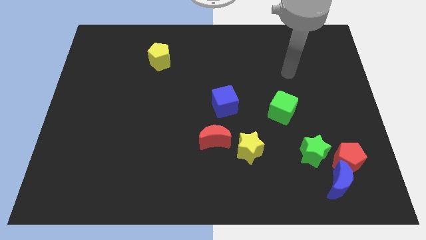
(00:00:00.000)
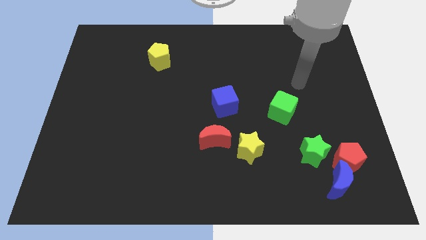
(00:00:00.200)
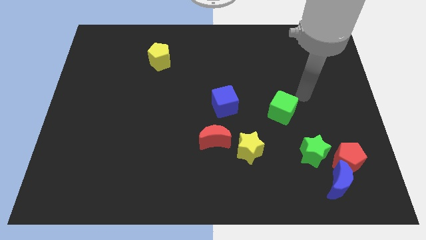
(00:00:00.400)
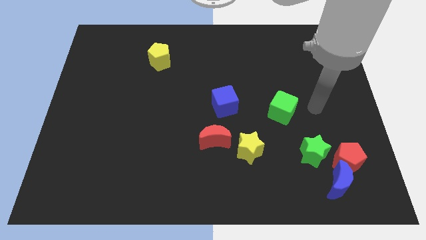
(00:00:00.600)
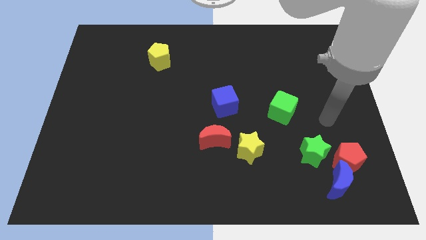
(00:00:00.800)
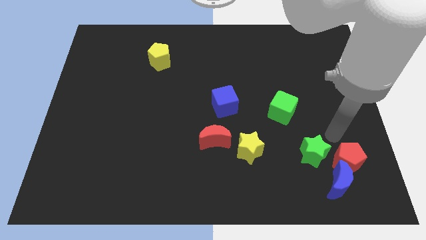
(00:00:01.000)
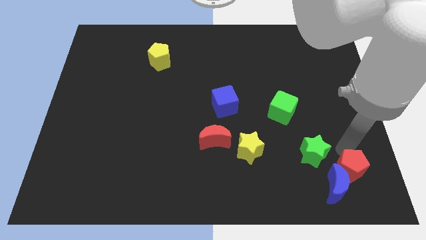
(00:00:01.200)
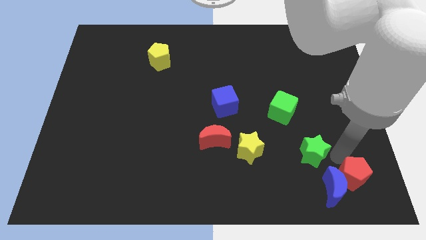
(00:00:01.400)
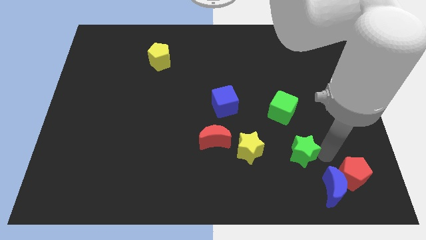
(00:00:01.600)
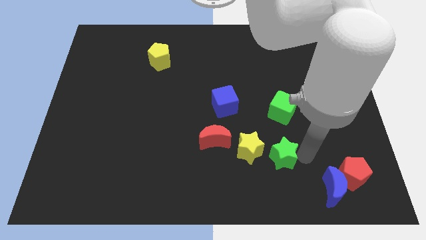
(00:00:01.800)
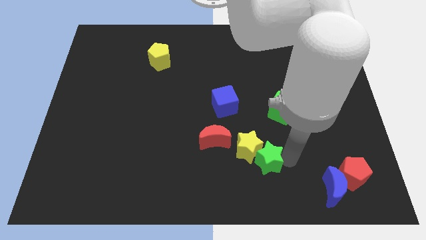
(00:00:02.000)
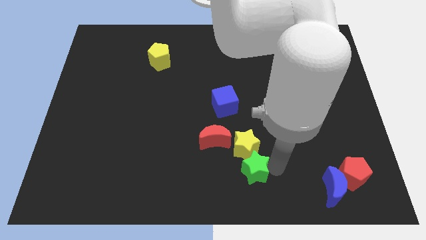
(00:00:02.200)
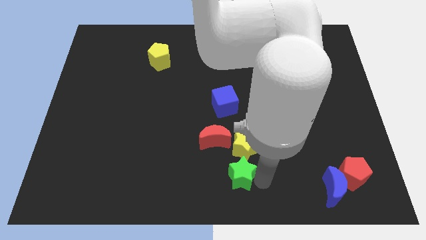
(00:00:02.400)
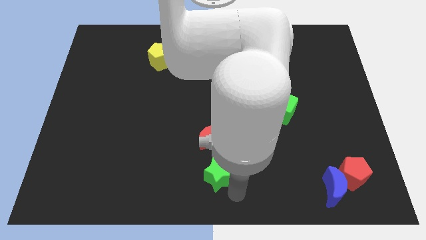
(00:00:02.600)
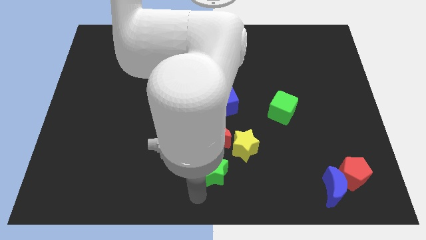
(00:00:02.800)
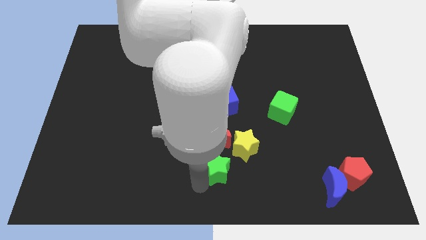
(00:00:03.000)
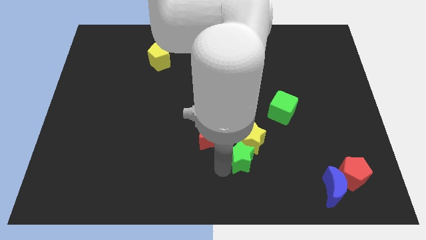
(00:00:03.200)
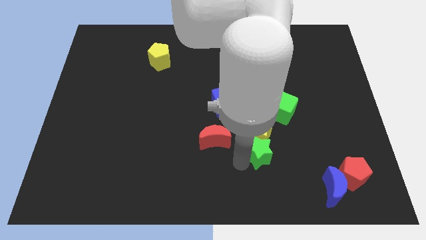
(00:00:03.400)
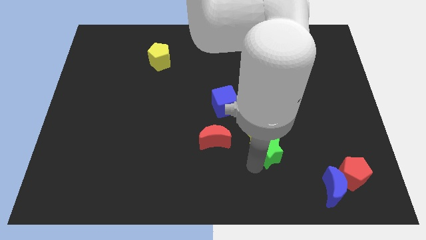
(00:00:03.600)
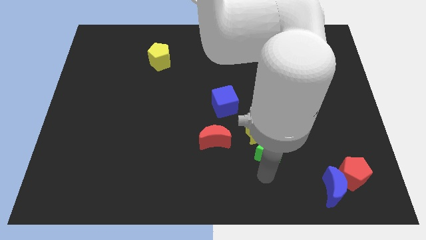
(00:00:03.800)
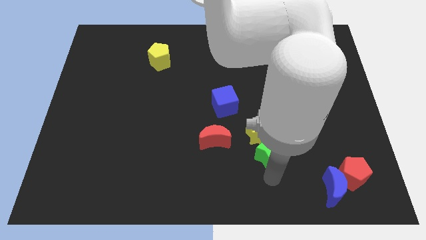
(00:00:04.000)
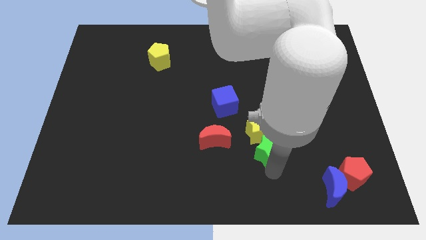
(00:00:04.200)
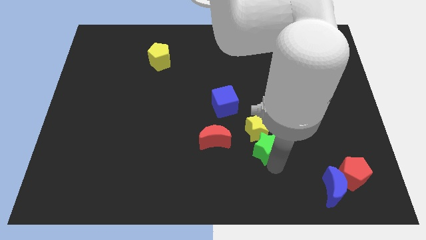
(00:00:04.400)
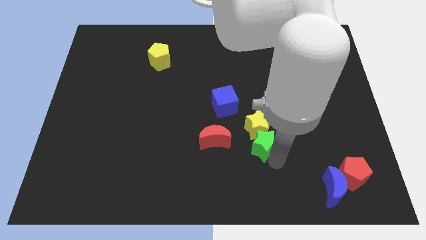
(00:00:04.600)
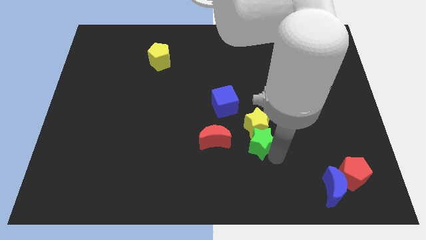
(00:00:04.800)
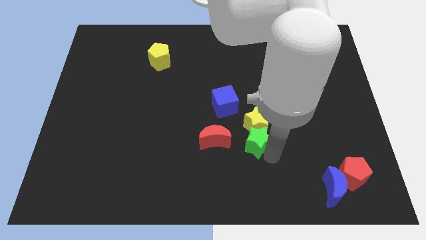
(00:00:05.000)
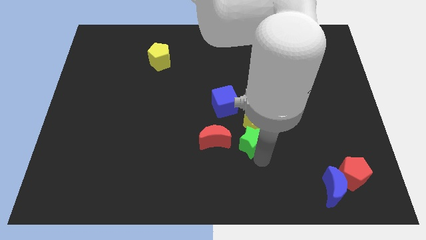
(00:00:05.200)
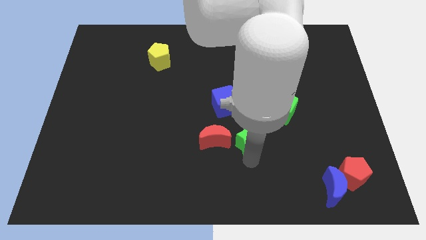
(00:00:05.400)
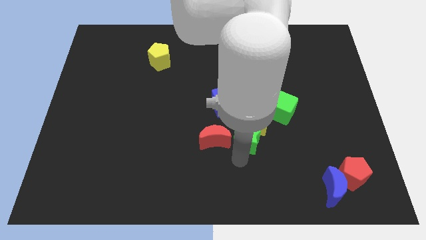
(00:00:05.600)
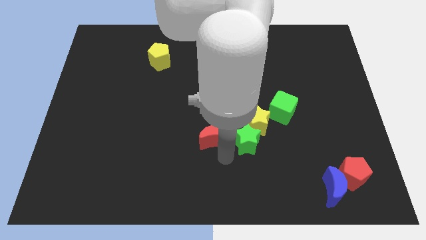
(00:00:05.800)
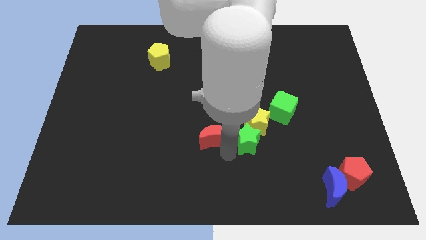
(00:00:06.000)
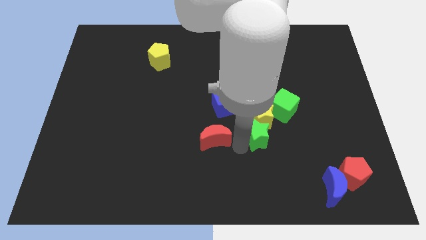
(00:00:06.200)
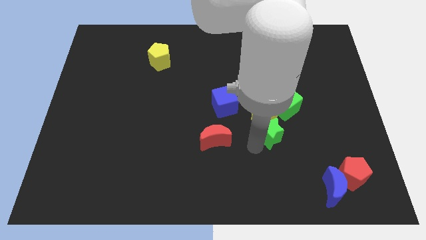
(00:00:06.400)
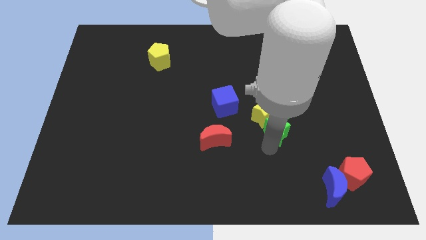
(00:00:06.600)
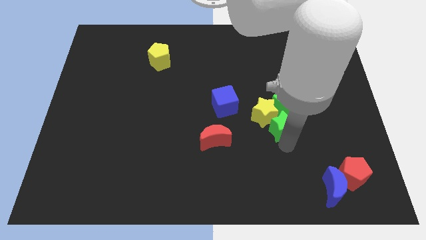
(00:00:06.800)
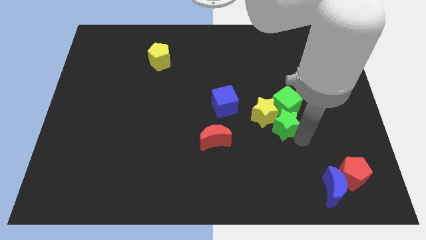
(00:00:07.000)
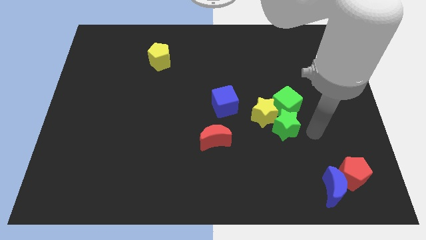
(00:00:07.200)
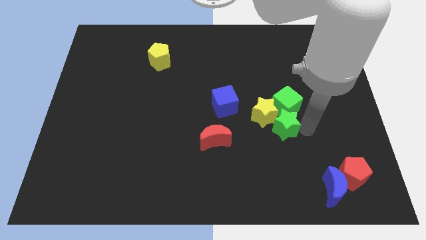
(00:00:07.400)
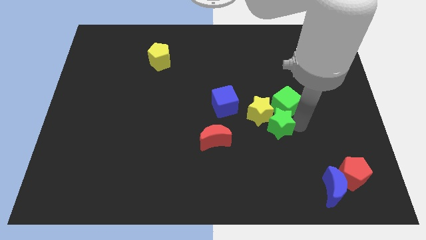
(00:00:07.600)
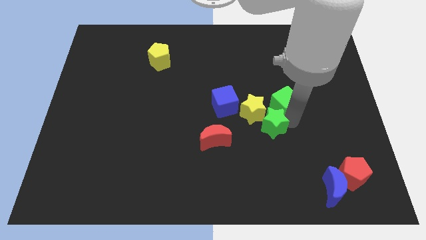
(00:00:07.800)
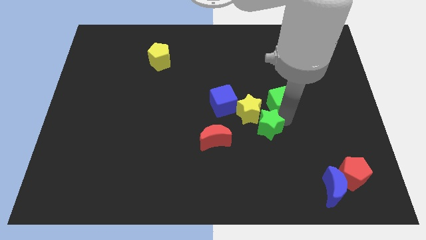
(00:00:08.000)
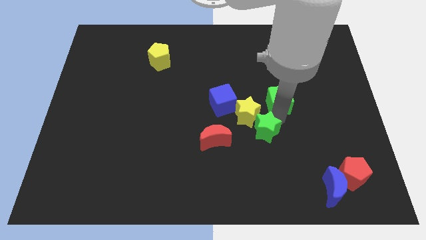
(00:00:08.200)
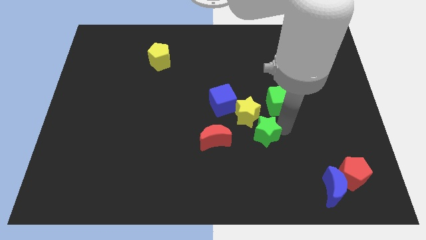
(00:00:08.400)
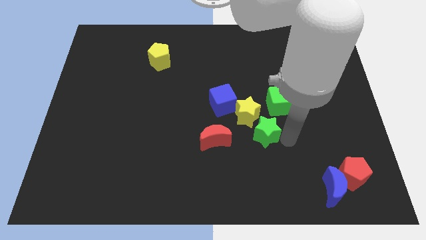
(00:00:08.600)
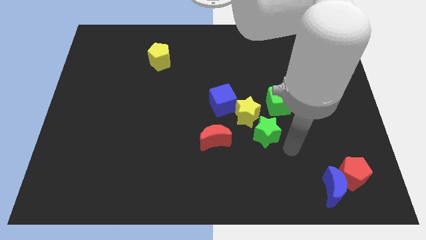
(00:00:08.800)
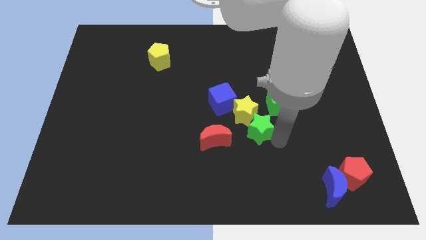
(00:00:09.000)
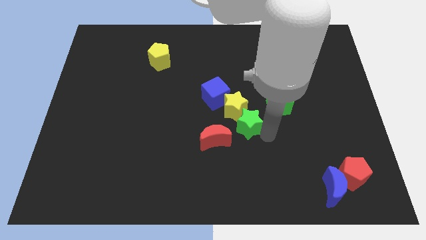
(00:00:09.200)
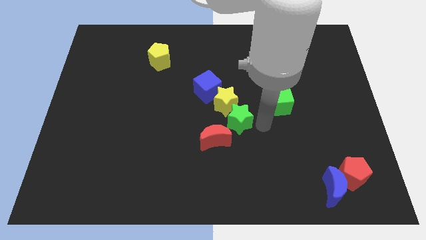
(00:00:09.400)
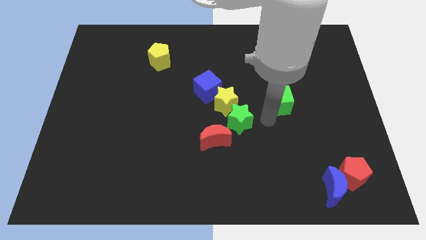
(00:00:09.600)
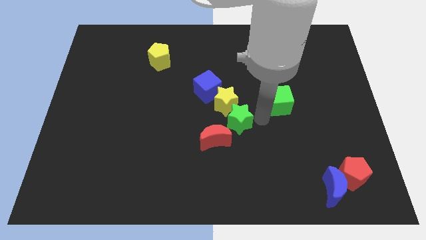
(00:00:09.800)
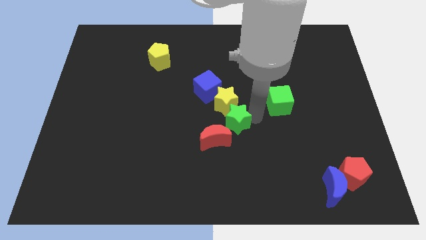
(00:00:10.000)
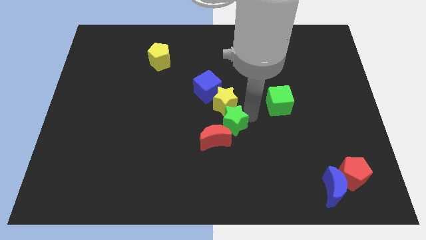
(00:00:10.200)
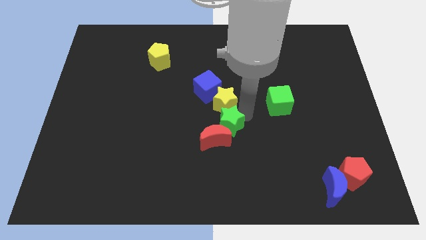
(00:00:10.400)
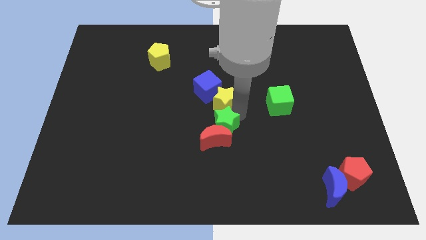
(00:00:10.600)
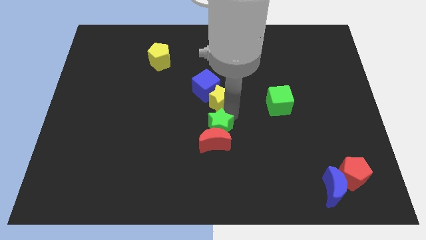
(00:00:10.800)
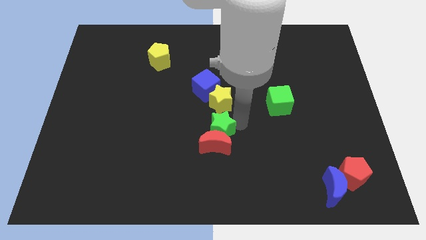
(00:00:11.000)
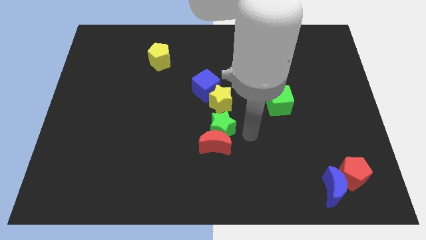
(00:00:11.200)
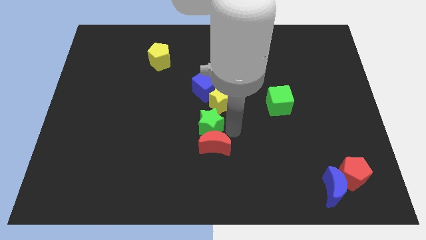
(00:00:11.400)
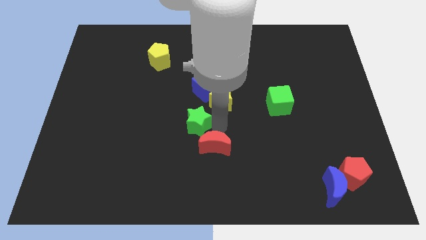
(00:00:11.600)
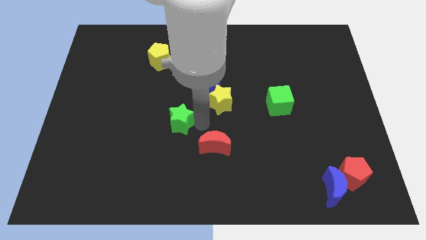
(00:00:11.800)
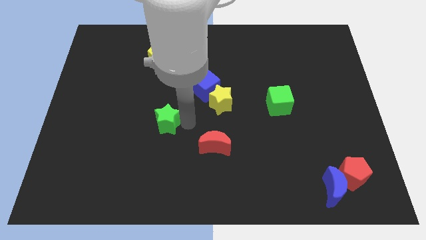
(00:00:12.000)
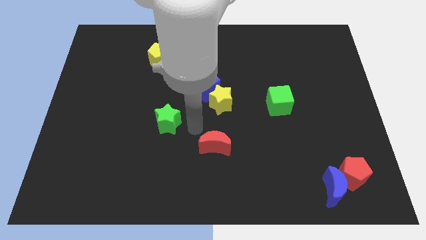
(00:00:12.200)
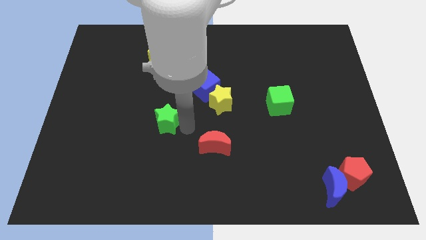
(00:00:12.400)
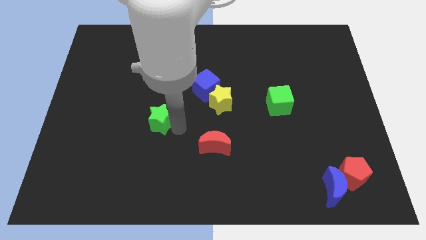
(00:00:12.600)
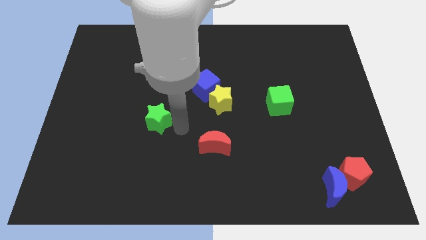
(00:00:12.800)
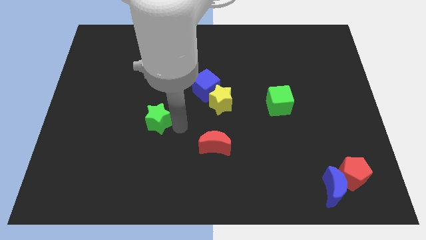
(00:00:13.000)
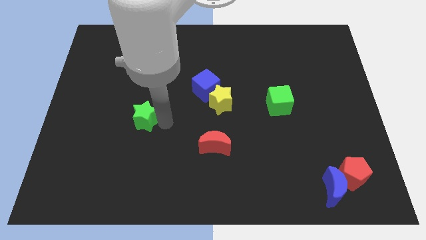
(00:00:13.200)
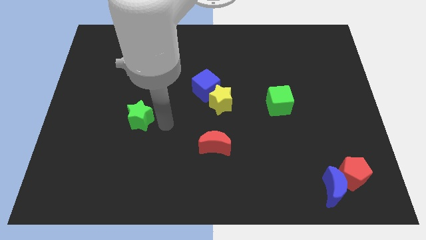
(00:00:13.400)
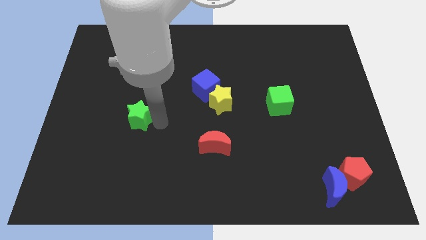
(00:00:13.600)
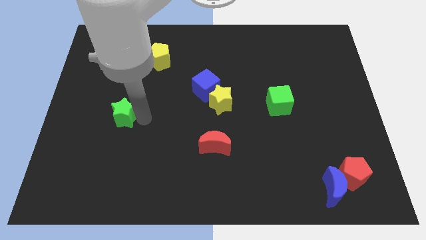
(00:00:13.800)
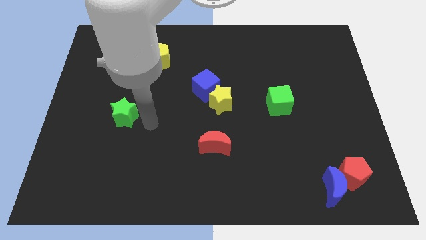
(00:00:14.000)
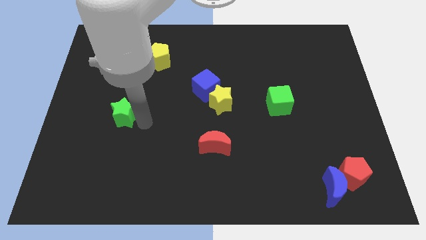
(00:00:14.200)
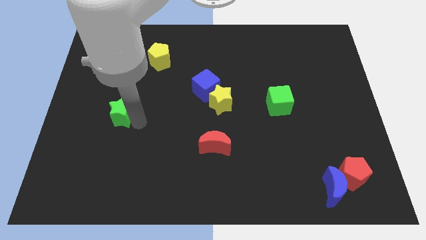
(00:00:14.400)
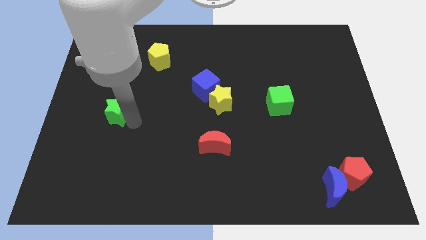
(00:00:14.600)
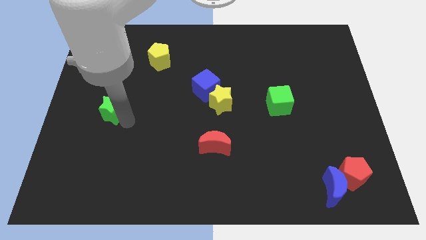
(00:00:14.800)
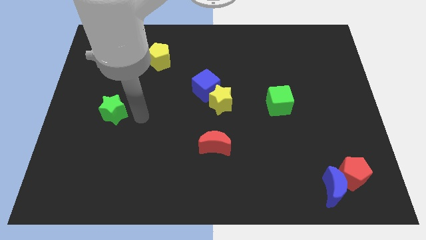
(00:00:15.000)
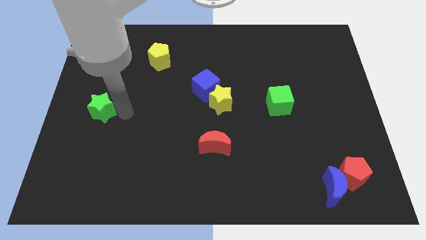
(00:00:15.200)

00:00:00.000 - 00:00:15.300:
put the green star to the left side
